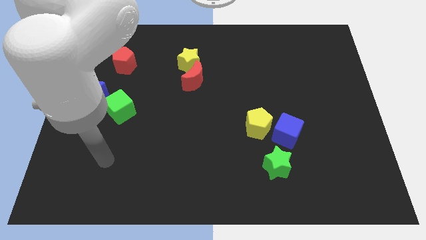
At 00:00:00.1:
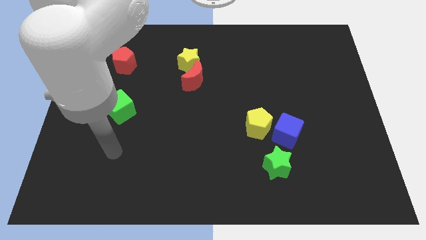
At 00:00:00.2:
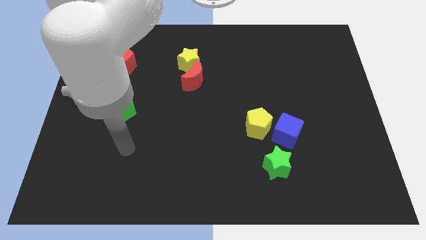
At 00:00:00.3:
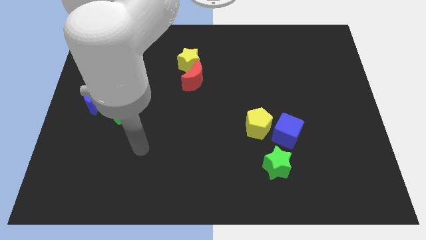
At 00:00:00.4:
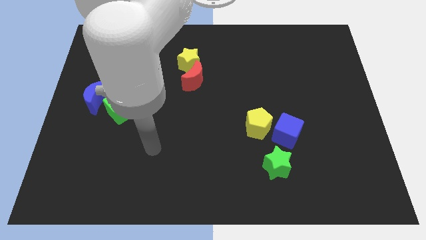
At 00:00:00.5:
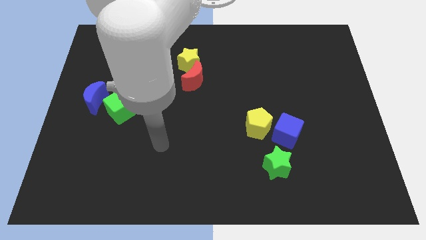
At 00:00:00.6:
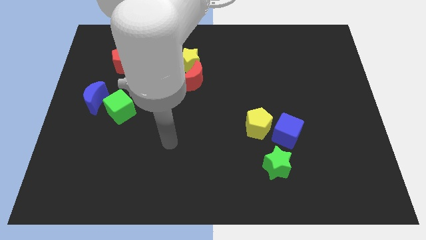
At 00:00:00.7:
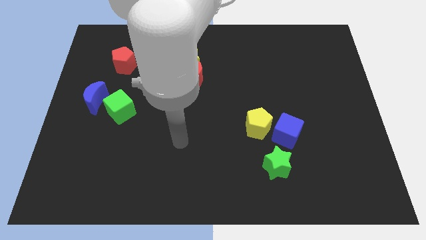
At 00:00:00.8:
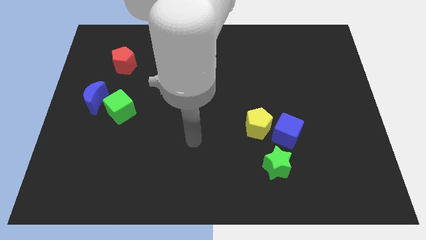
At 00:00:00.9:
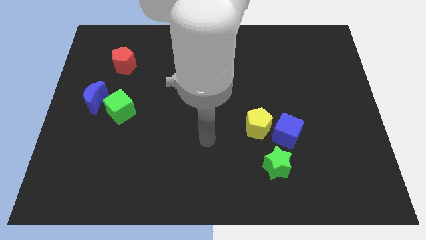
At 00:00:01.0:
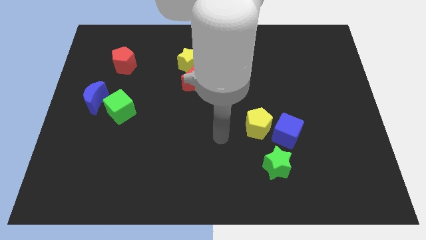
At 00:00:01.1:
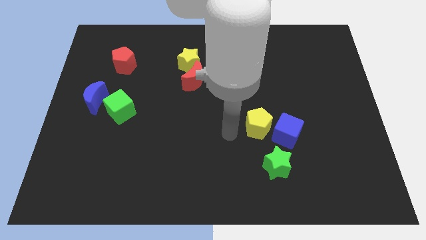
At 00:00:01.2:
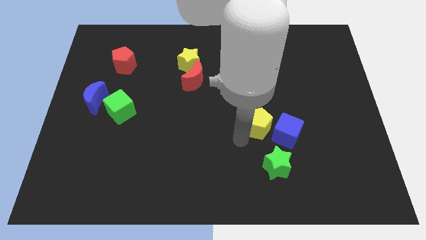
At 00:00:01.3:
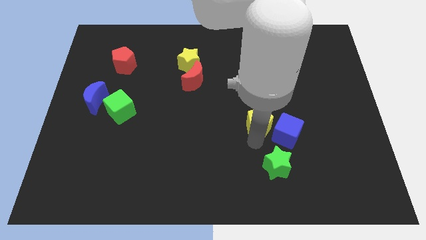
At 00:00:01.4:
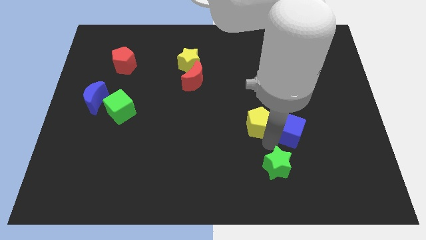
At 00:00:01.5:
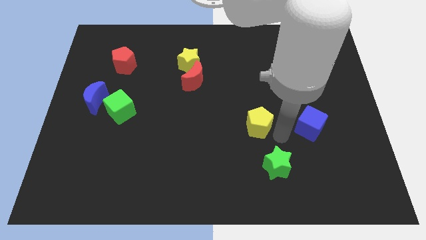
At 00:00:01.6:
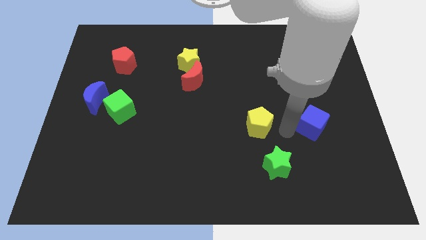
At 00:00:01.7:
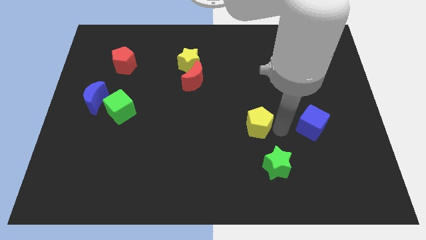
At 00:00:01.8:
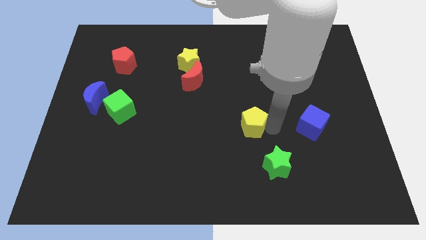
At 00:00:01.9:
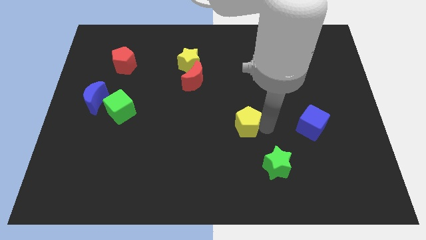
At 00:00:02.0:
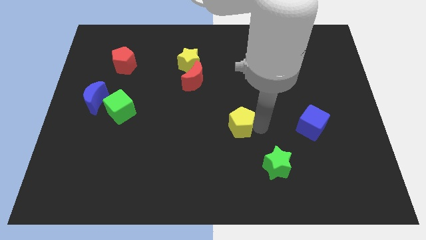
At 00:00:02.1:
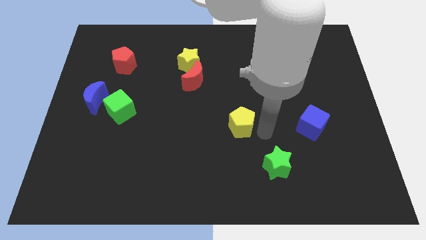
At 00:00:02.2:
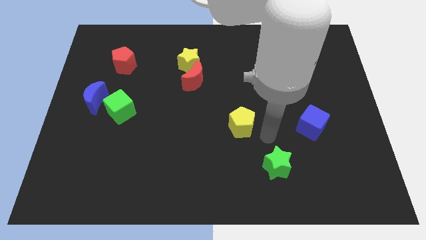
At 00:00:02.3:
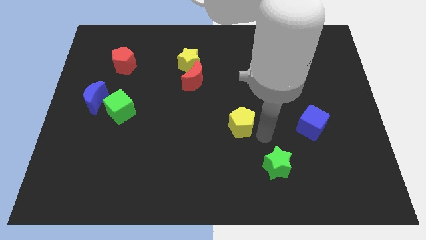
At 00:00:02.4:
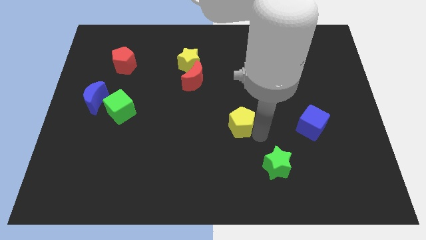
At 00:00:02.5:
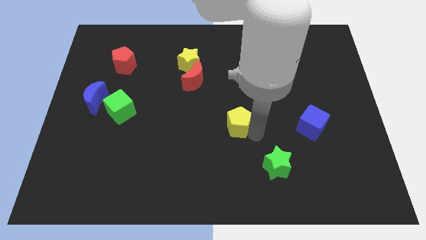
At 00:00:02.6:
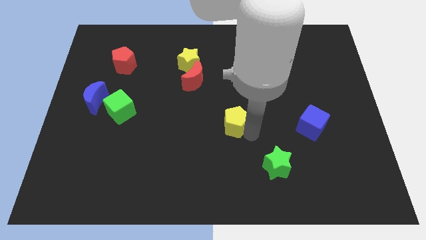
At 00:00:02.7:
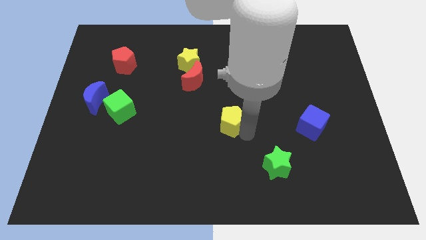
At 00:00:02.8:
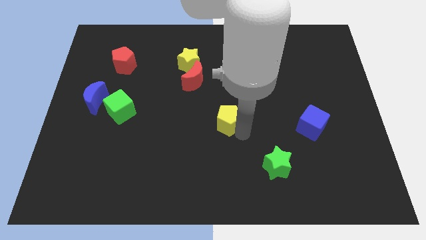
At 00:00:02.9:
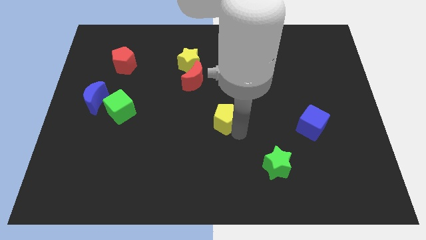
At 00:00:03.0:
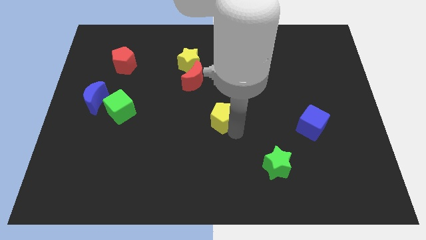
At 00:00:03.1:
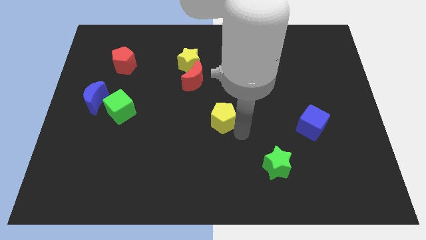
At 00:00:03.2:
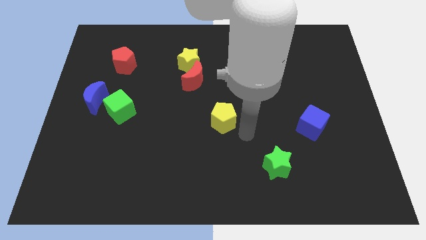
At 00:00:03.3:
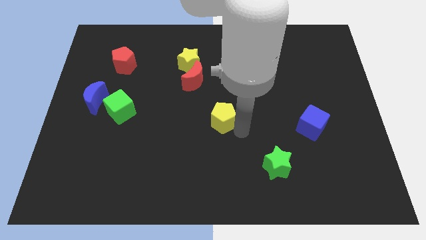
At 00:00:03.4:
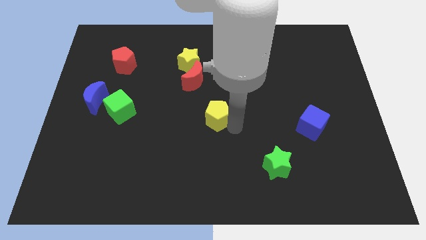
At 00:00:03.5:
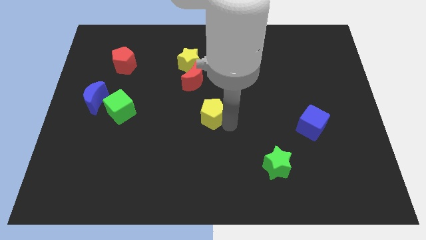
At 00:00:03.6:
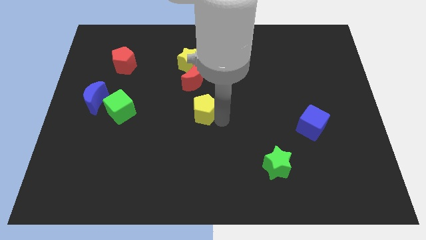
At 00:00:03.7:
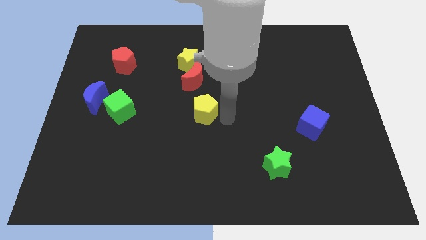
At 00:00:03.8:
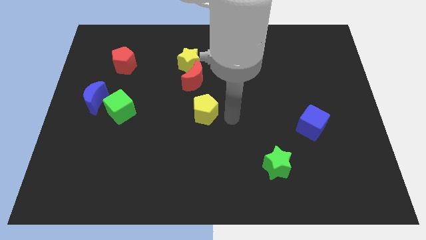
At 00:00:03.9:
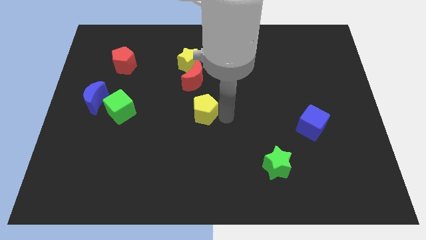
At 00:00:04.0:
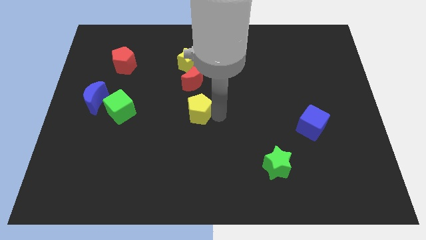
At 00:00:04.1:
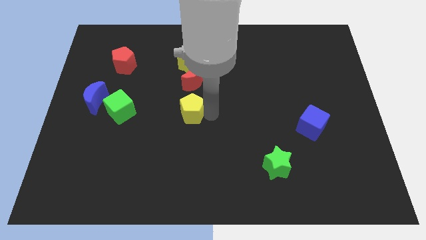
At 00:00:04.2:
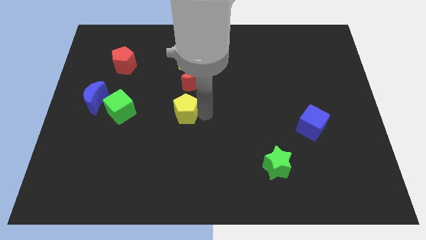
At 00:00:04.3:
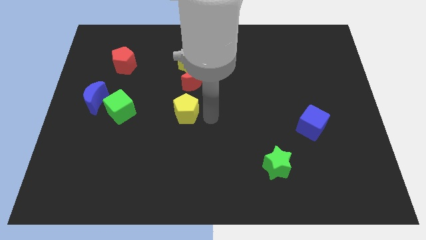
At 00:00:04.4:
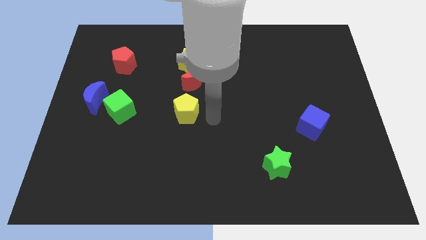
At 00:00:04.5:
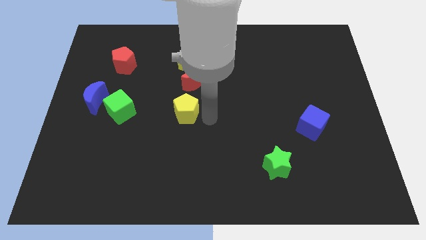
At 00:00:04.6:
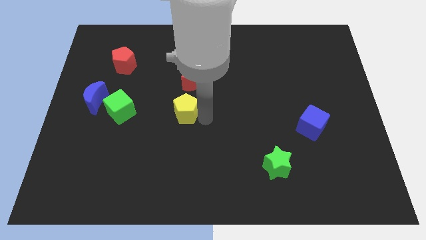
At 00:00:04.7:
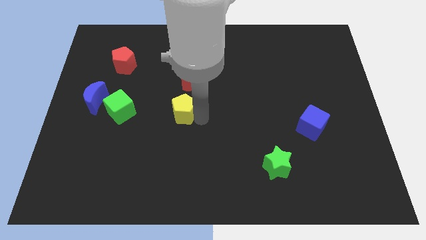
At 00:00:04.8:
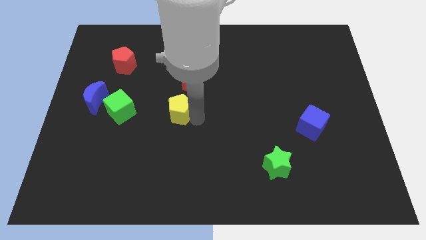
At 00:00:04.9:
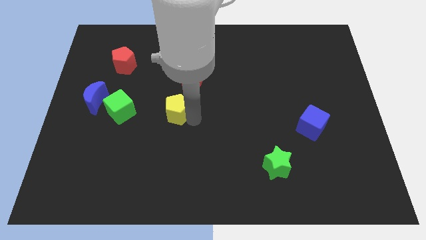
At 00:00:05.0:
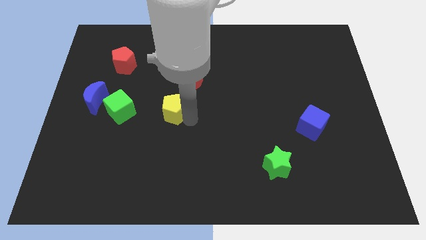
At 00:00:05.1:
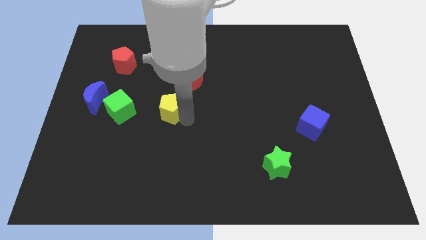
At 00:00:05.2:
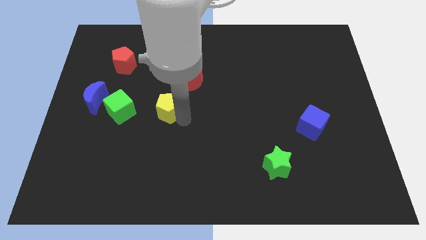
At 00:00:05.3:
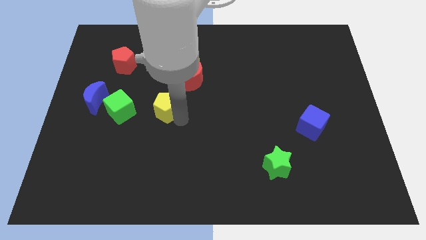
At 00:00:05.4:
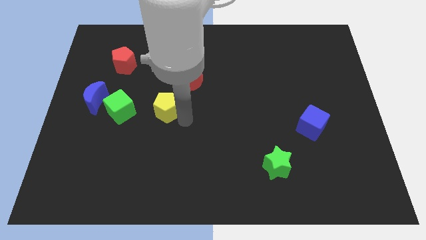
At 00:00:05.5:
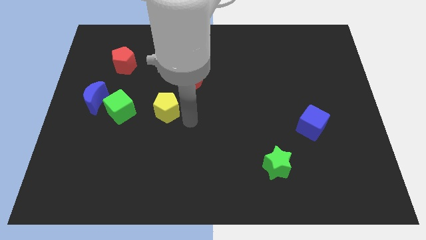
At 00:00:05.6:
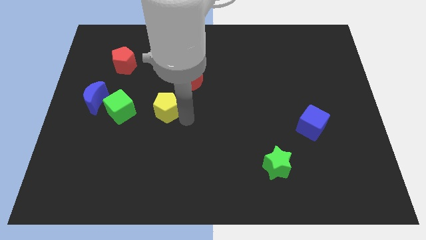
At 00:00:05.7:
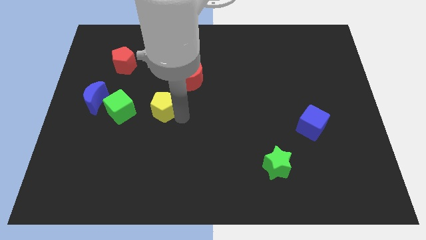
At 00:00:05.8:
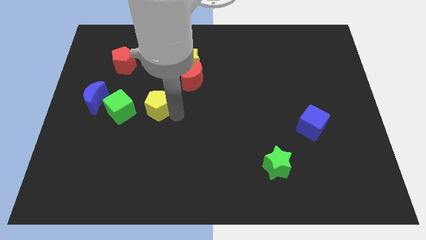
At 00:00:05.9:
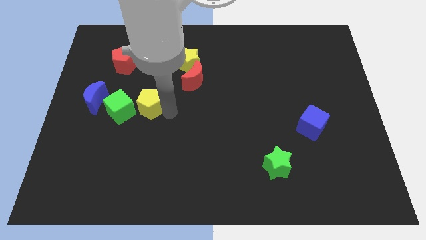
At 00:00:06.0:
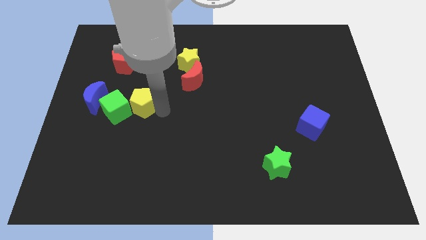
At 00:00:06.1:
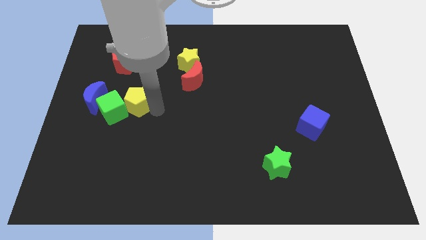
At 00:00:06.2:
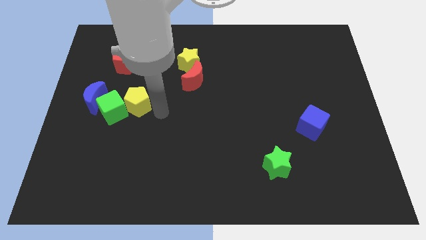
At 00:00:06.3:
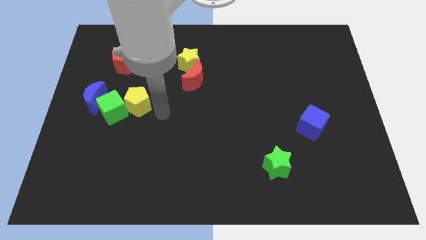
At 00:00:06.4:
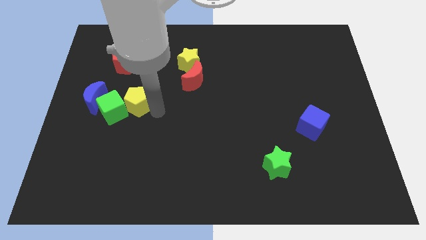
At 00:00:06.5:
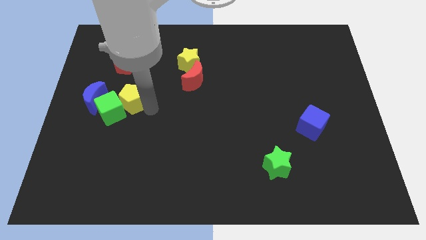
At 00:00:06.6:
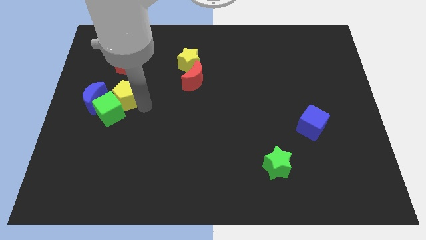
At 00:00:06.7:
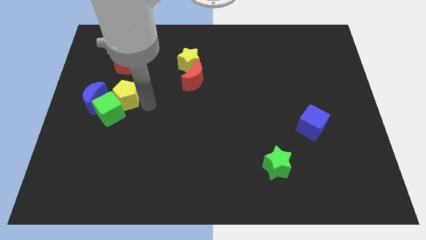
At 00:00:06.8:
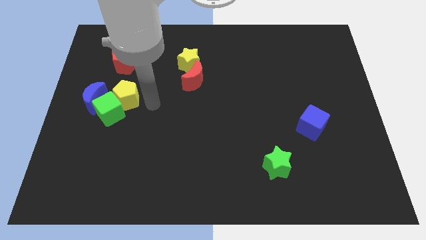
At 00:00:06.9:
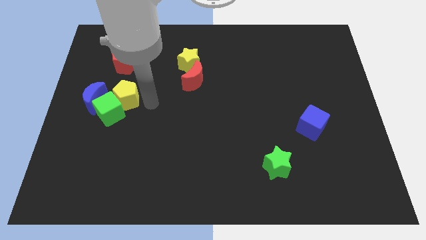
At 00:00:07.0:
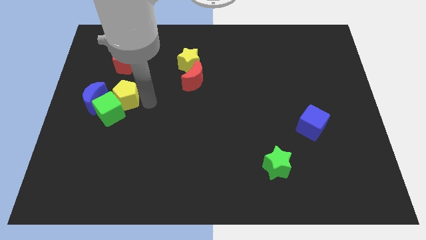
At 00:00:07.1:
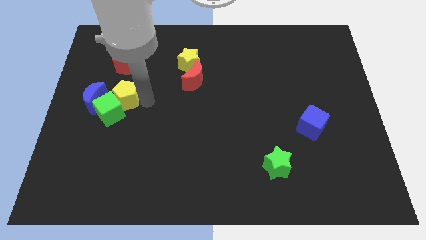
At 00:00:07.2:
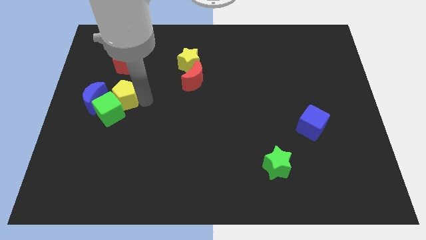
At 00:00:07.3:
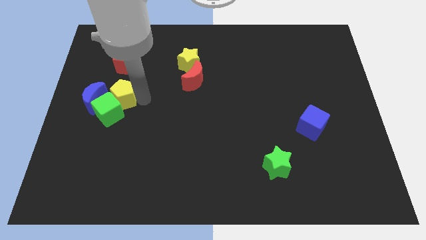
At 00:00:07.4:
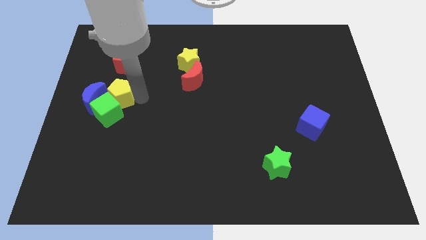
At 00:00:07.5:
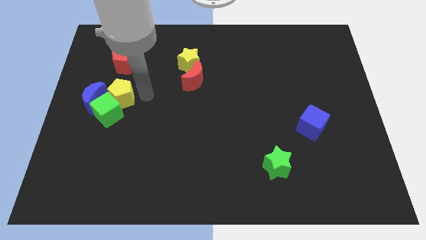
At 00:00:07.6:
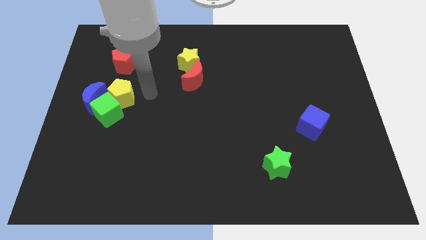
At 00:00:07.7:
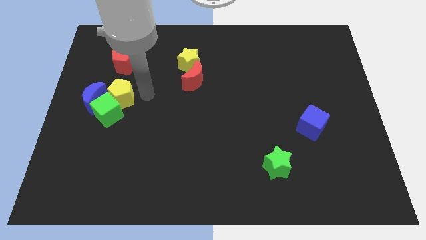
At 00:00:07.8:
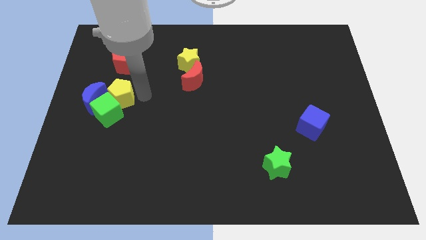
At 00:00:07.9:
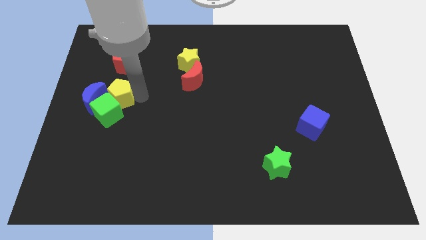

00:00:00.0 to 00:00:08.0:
move the yellow pentagon towards the blue moon
